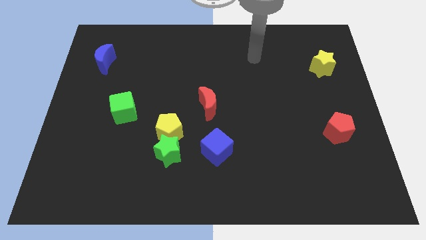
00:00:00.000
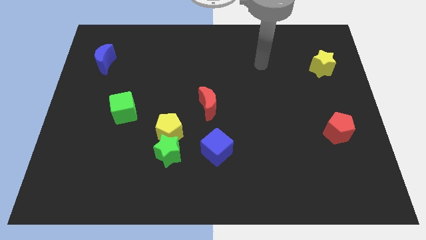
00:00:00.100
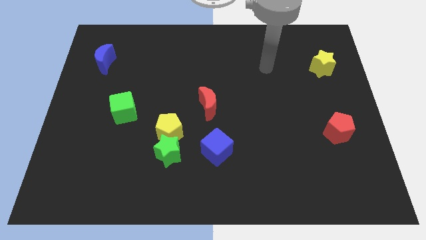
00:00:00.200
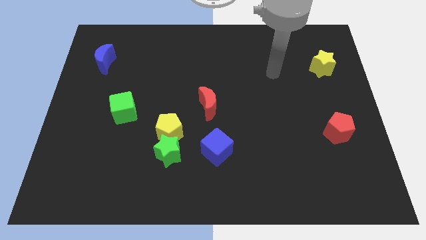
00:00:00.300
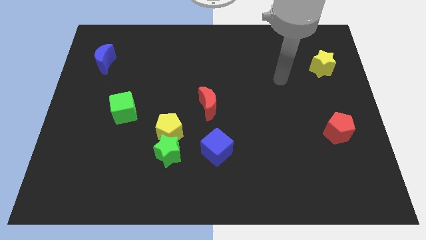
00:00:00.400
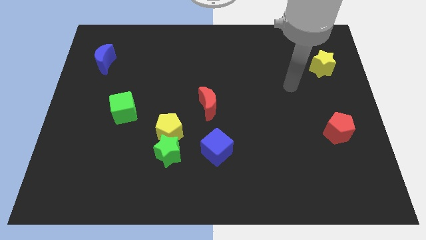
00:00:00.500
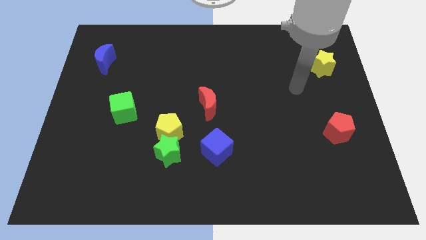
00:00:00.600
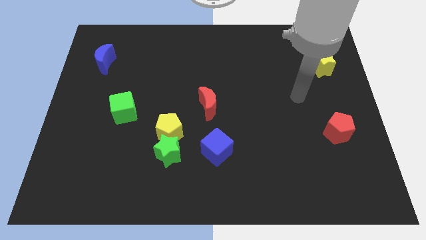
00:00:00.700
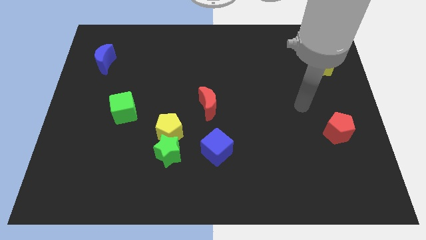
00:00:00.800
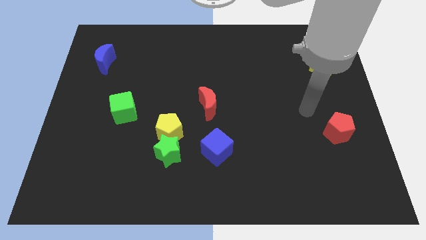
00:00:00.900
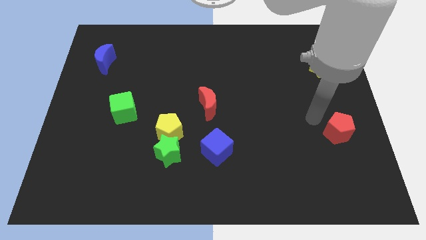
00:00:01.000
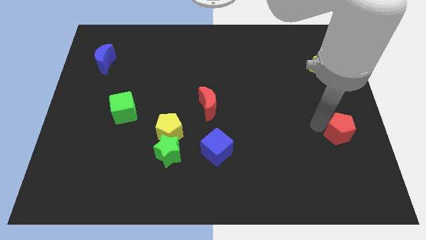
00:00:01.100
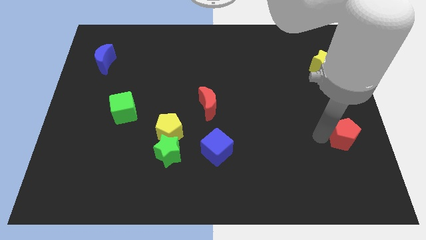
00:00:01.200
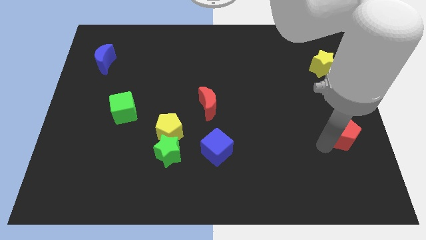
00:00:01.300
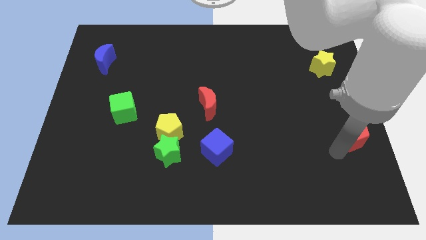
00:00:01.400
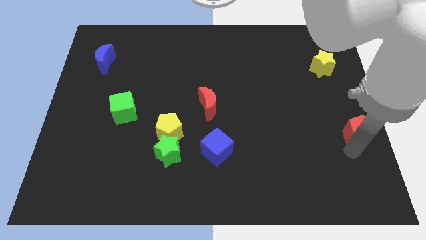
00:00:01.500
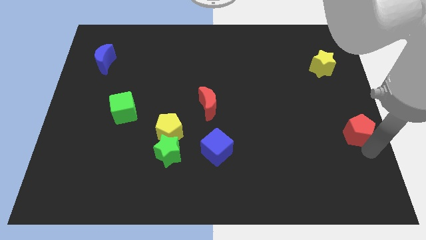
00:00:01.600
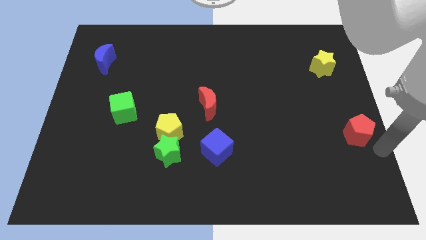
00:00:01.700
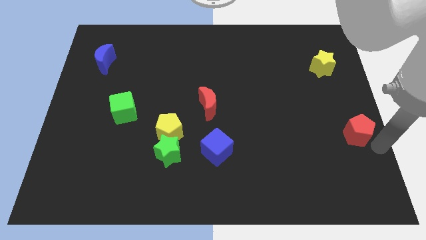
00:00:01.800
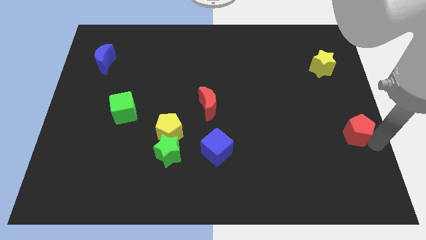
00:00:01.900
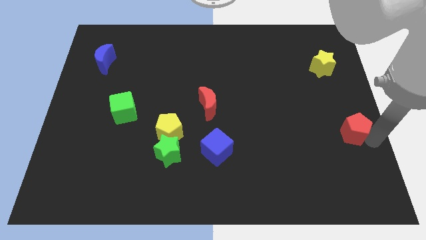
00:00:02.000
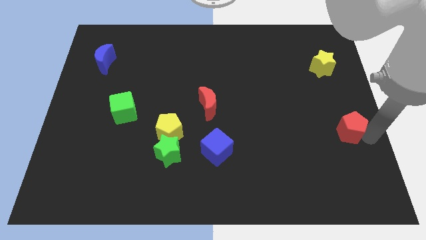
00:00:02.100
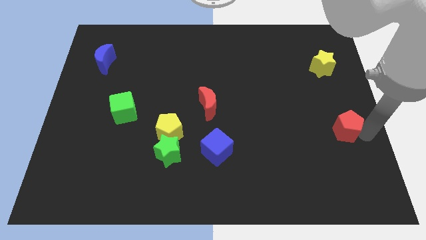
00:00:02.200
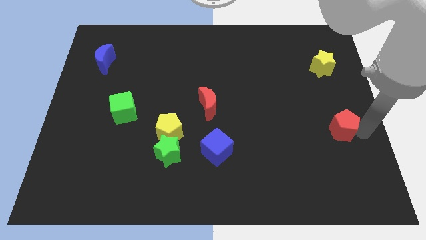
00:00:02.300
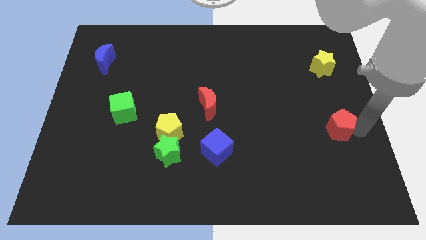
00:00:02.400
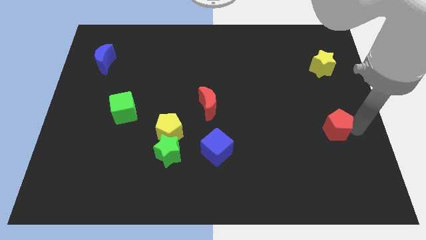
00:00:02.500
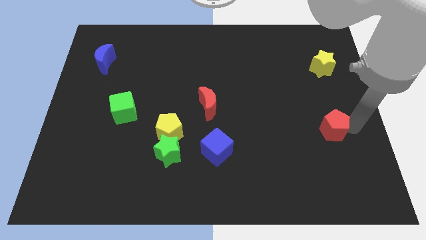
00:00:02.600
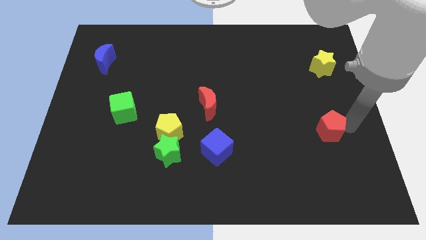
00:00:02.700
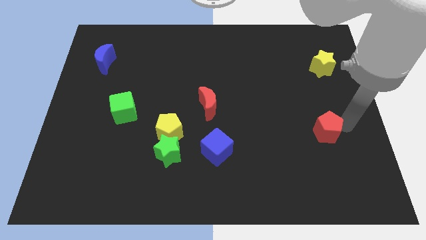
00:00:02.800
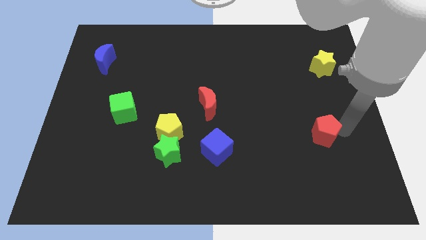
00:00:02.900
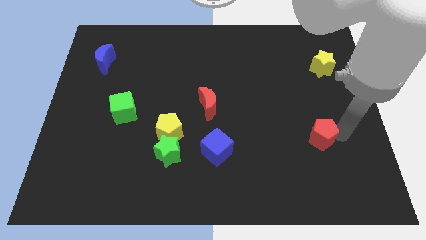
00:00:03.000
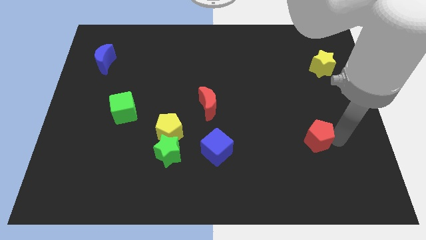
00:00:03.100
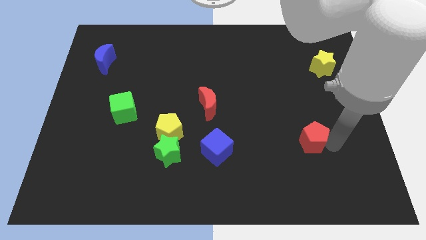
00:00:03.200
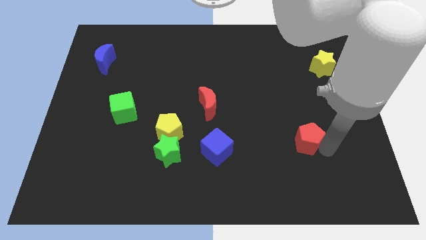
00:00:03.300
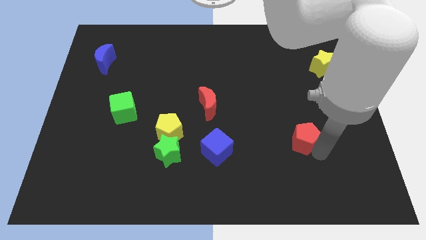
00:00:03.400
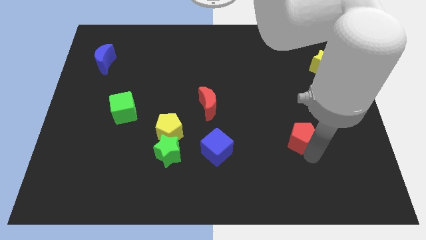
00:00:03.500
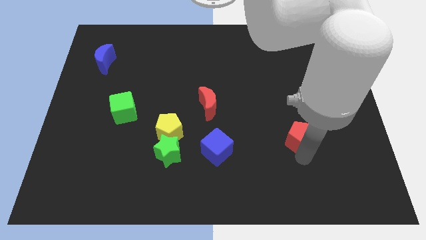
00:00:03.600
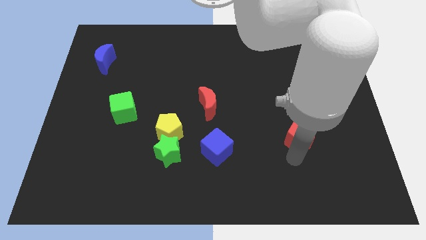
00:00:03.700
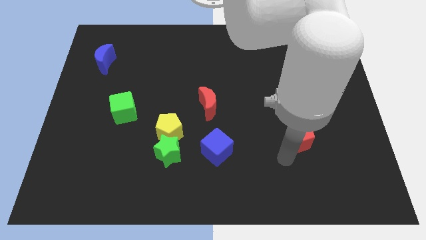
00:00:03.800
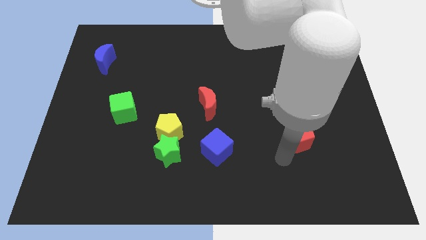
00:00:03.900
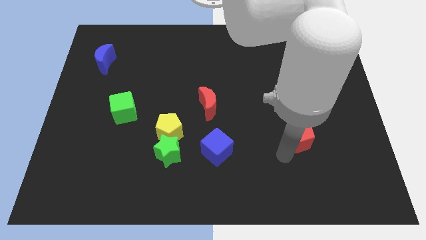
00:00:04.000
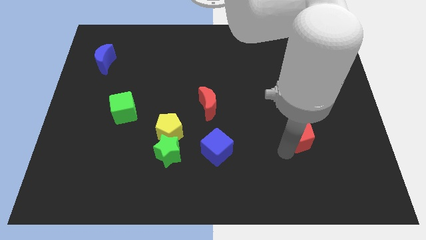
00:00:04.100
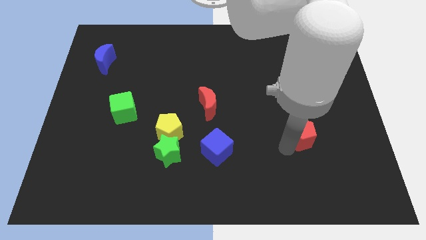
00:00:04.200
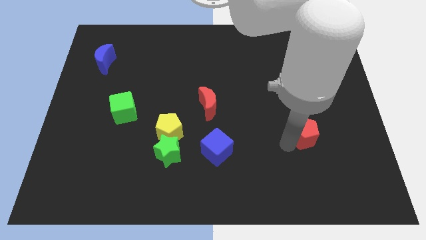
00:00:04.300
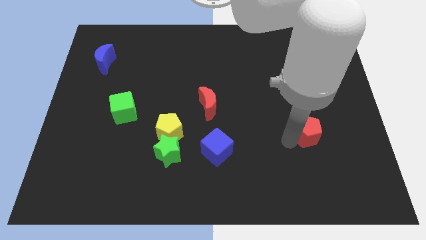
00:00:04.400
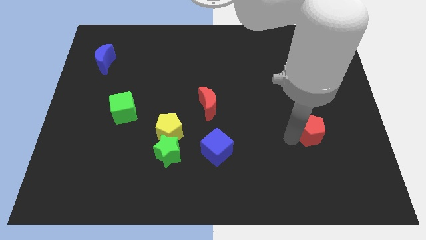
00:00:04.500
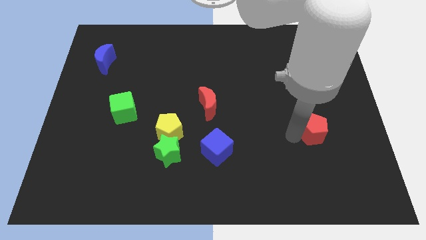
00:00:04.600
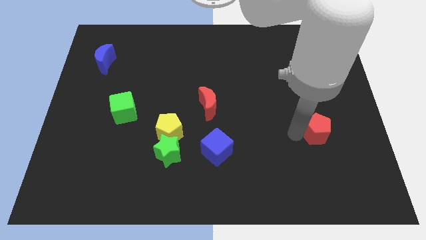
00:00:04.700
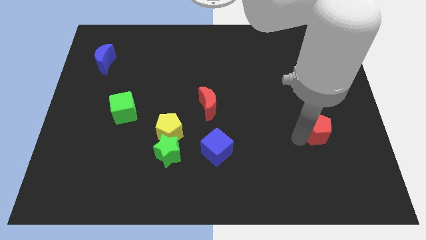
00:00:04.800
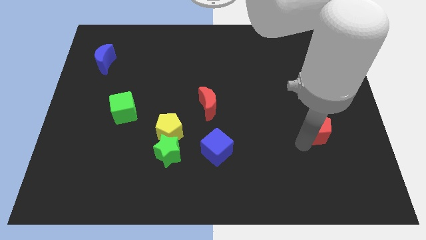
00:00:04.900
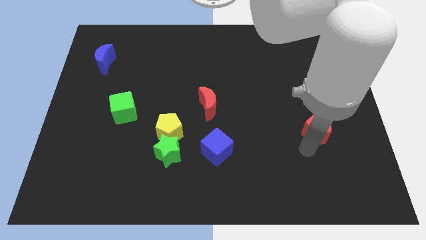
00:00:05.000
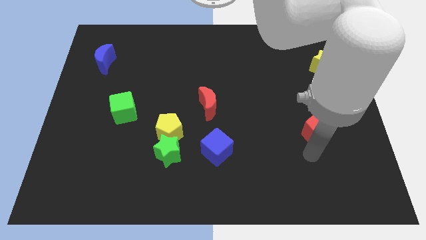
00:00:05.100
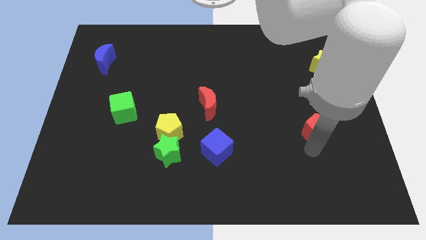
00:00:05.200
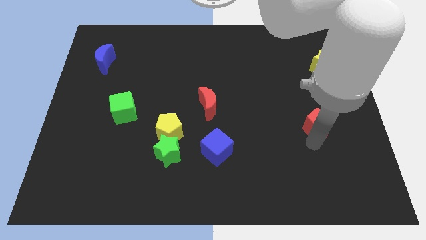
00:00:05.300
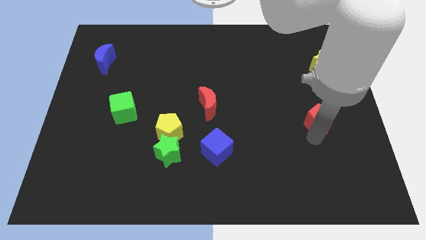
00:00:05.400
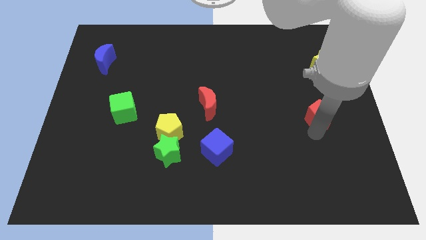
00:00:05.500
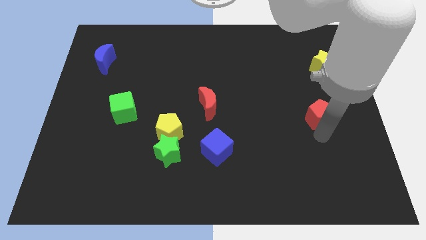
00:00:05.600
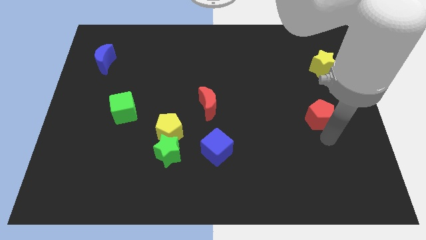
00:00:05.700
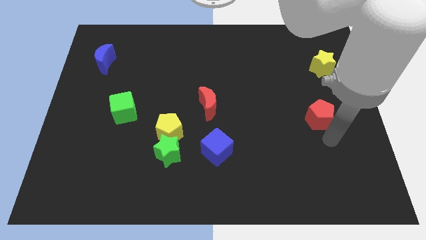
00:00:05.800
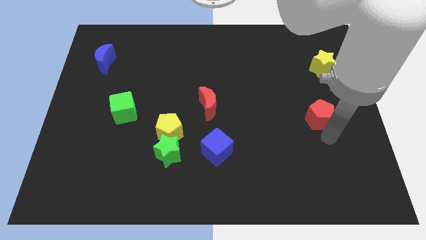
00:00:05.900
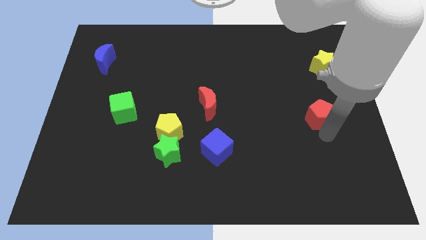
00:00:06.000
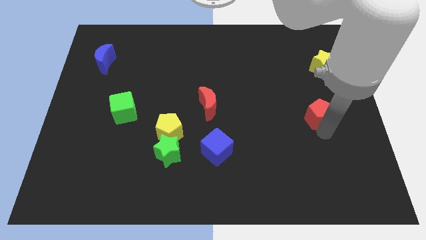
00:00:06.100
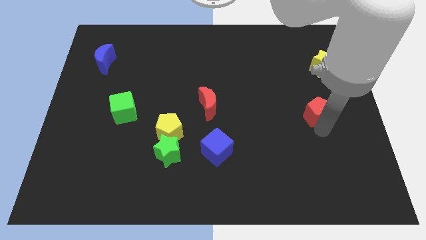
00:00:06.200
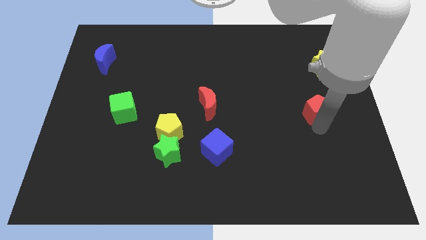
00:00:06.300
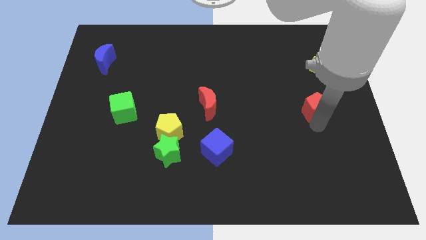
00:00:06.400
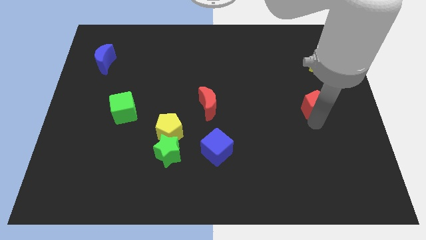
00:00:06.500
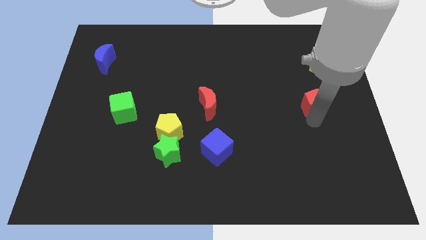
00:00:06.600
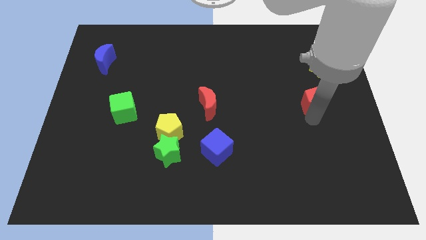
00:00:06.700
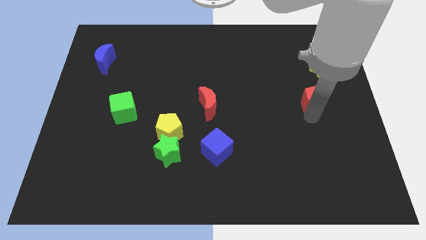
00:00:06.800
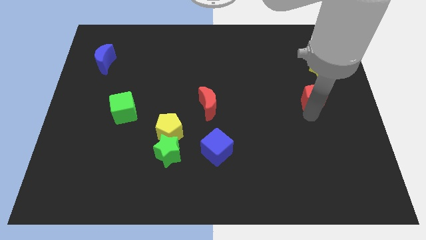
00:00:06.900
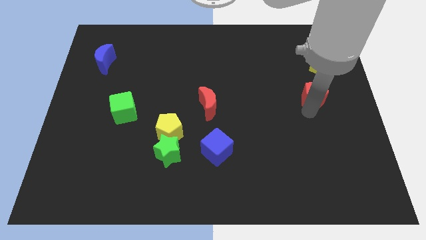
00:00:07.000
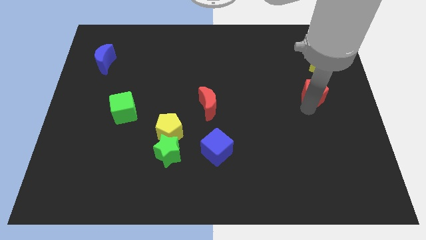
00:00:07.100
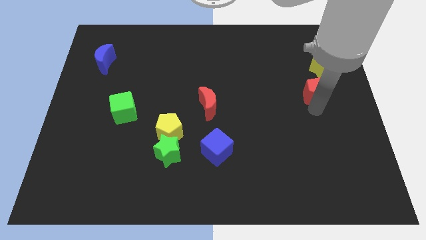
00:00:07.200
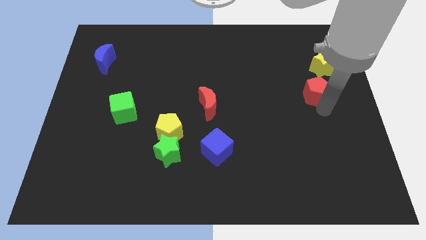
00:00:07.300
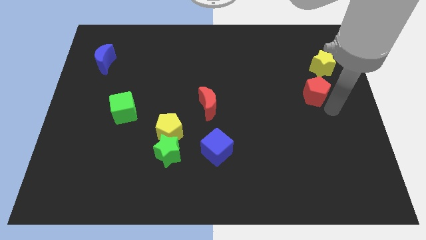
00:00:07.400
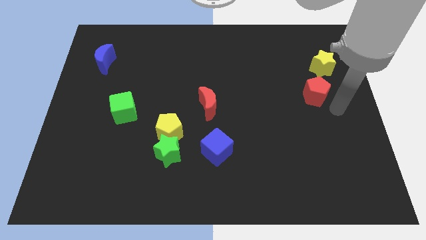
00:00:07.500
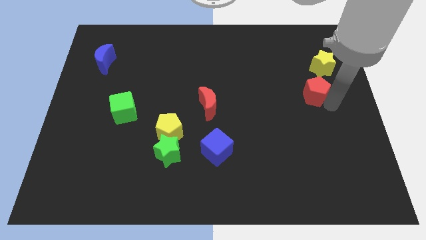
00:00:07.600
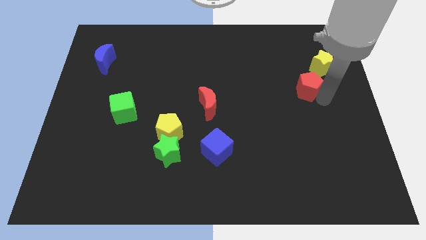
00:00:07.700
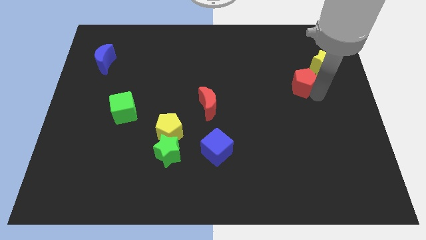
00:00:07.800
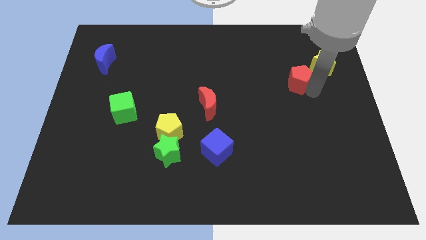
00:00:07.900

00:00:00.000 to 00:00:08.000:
slide the red pentagon just left of the yellow star
